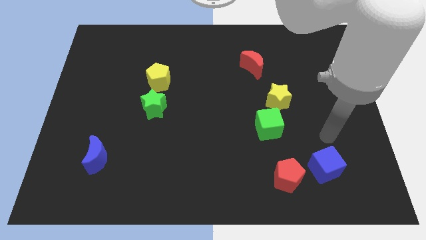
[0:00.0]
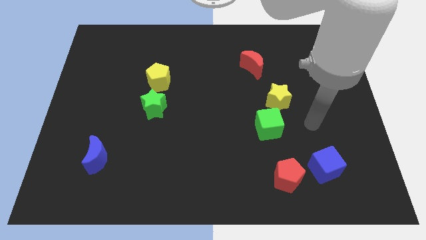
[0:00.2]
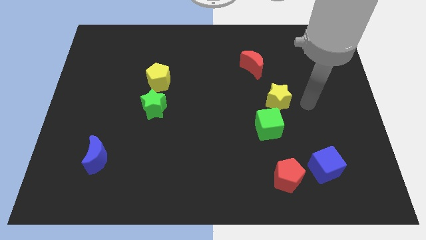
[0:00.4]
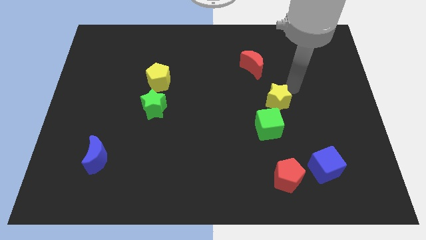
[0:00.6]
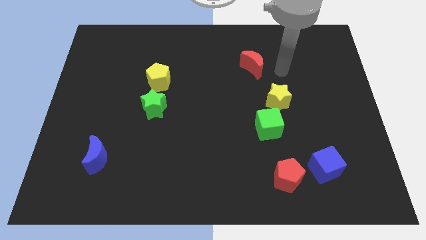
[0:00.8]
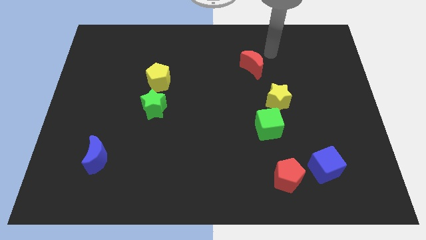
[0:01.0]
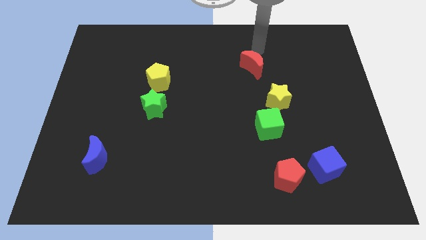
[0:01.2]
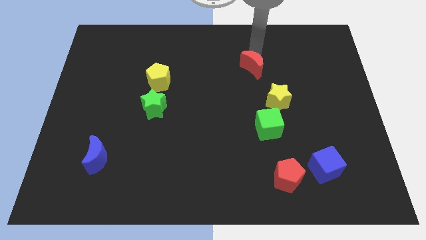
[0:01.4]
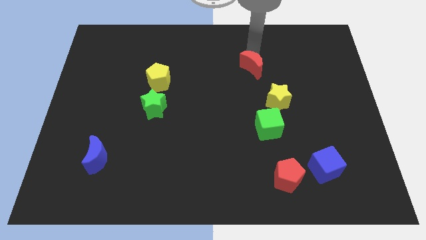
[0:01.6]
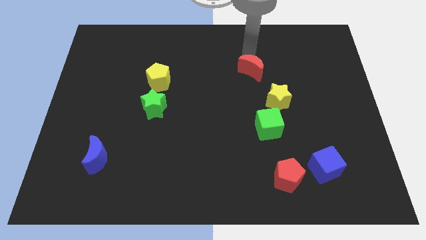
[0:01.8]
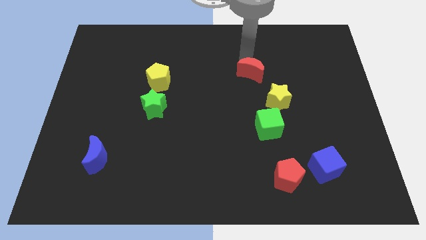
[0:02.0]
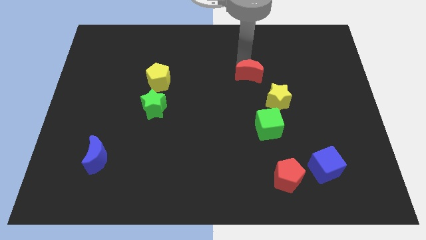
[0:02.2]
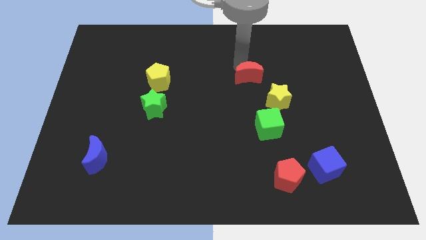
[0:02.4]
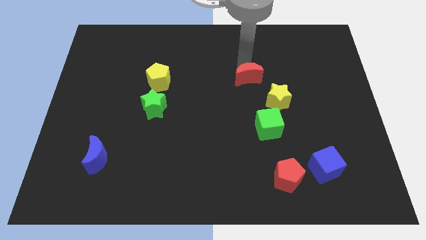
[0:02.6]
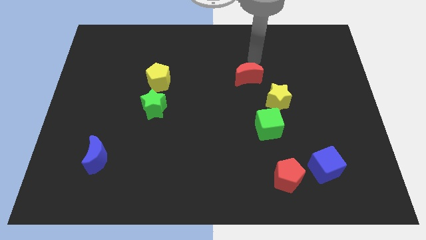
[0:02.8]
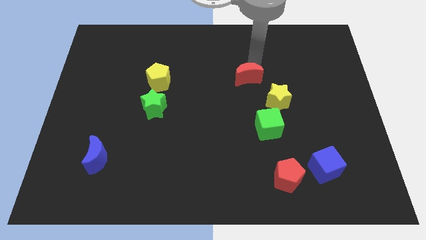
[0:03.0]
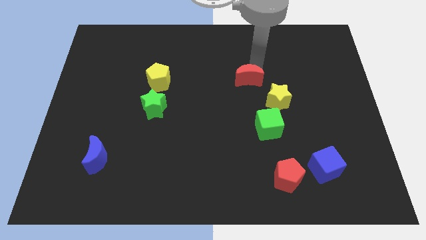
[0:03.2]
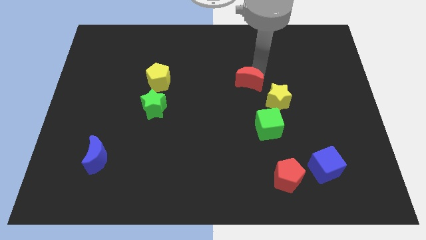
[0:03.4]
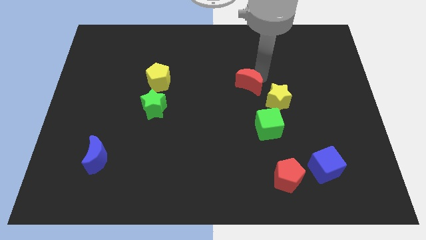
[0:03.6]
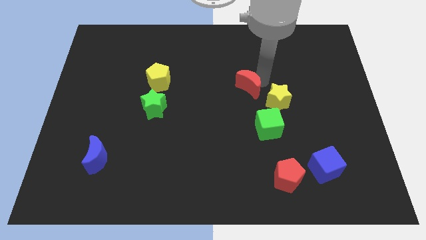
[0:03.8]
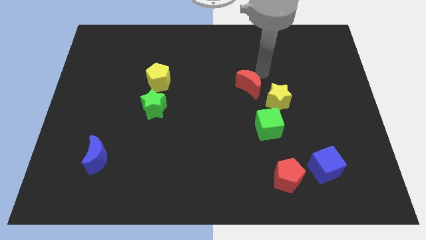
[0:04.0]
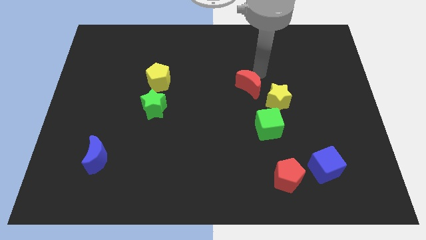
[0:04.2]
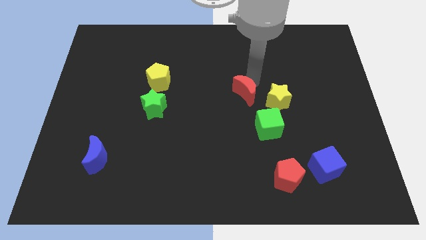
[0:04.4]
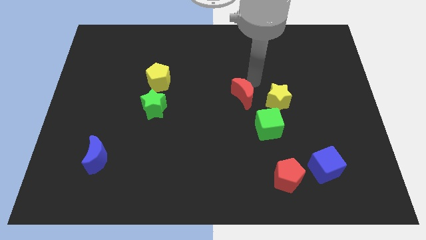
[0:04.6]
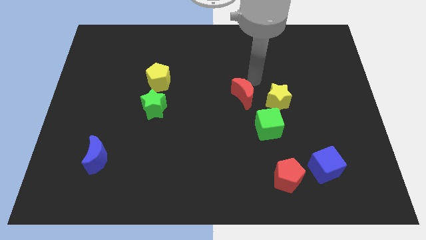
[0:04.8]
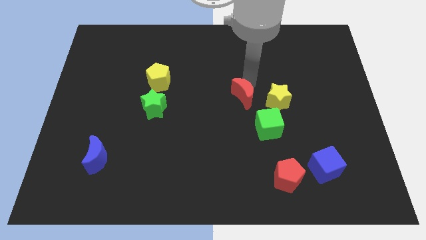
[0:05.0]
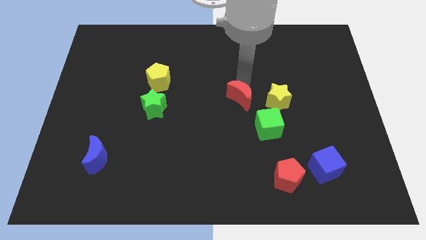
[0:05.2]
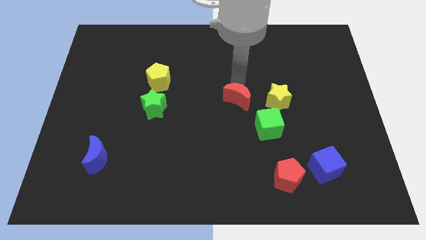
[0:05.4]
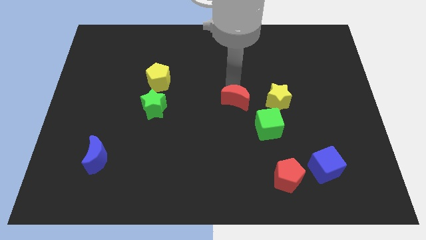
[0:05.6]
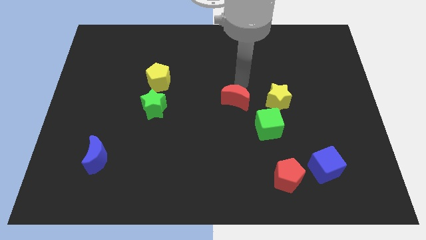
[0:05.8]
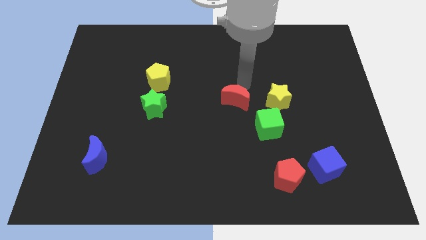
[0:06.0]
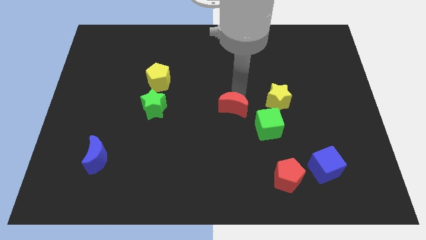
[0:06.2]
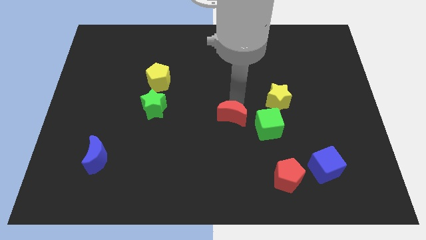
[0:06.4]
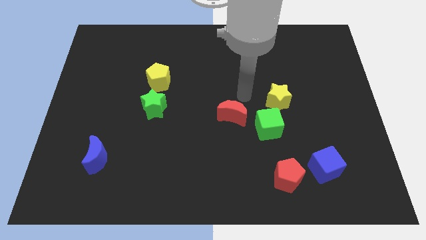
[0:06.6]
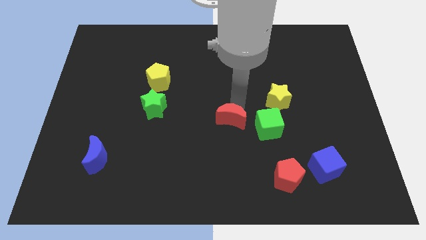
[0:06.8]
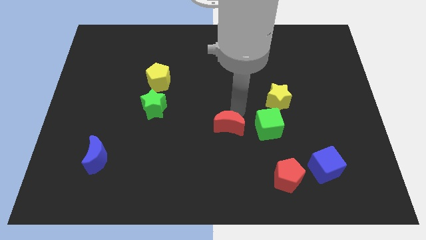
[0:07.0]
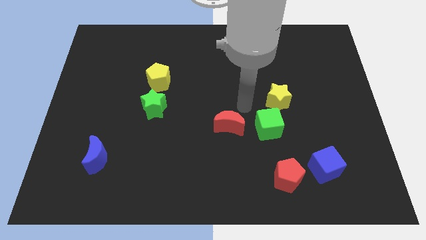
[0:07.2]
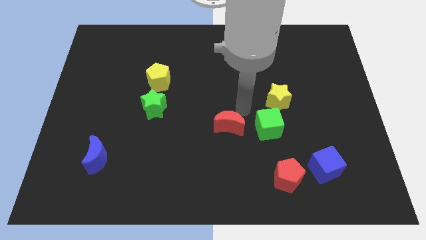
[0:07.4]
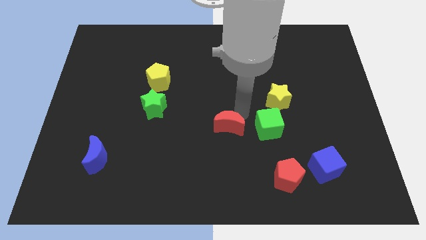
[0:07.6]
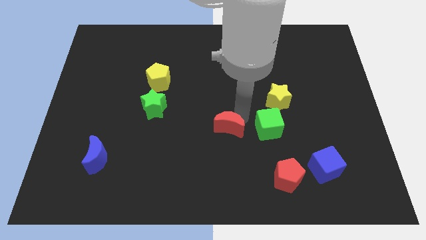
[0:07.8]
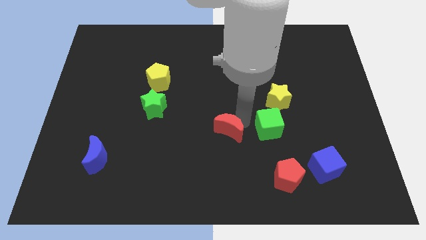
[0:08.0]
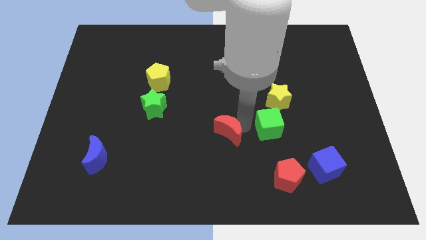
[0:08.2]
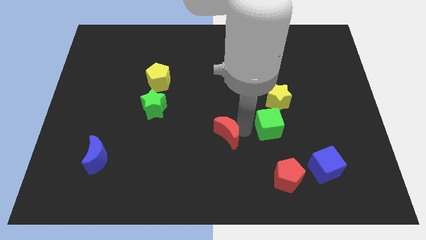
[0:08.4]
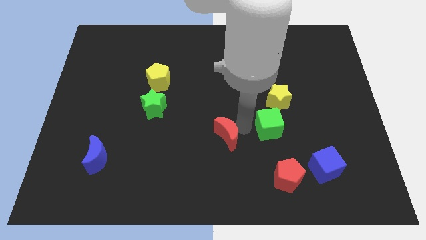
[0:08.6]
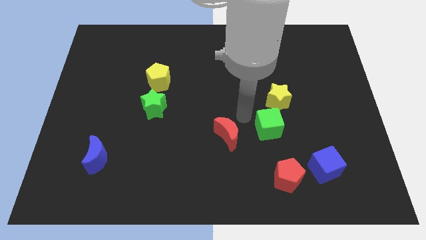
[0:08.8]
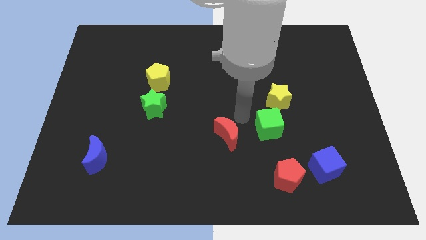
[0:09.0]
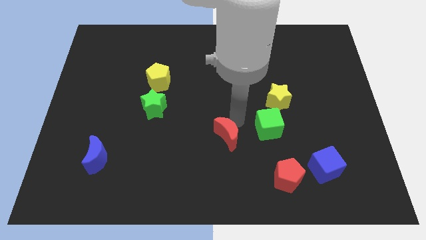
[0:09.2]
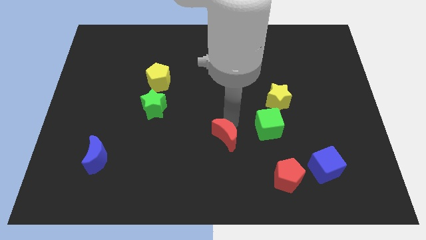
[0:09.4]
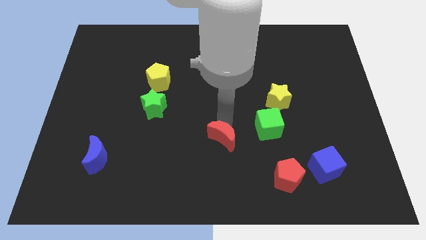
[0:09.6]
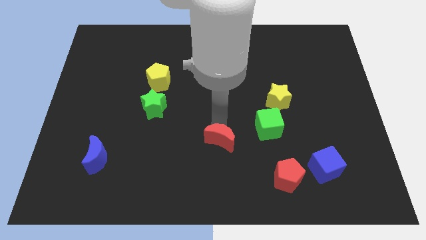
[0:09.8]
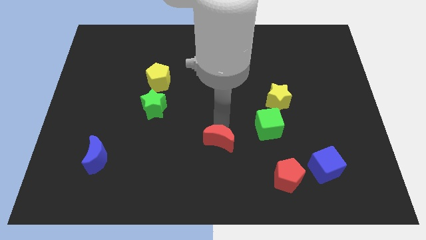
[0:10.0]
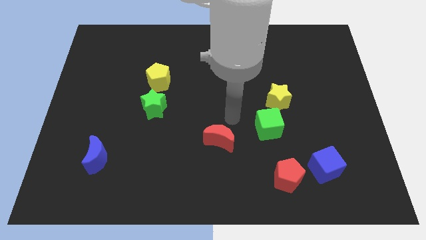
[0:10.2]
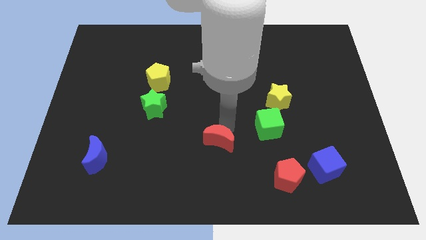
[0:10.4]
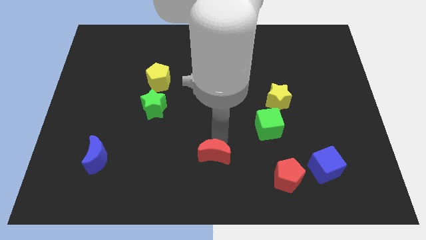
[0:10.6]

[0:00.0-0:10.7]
slide the red moon to the bottom

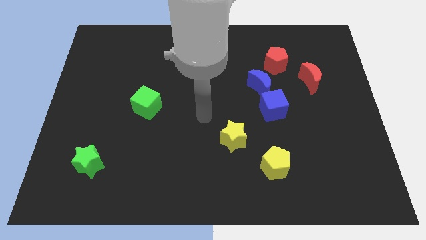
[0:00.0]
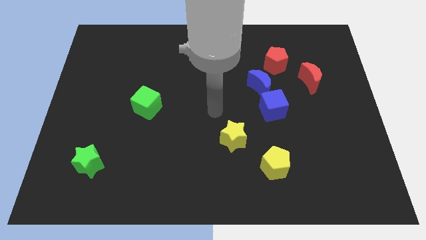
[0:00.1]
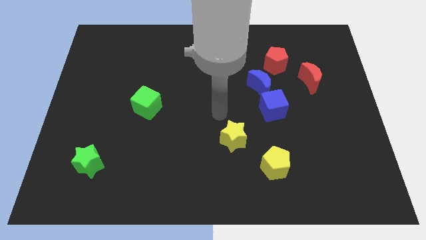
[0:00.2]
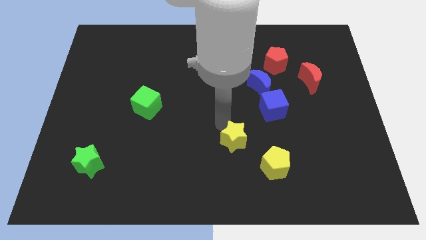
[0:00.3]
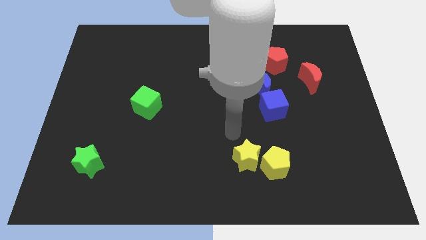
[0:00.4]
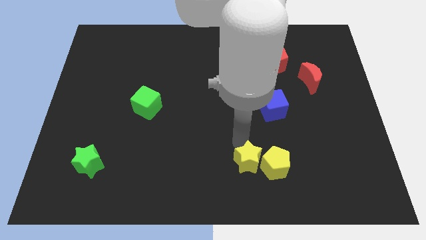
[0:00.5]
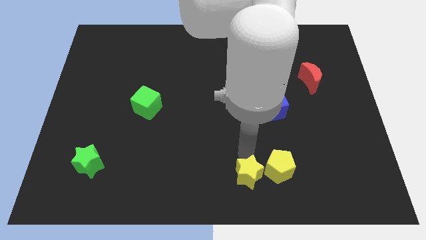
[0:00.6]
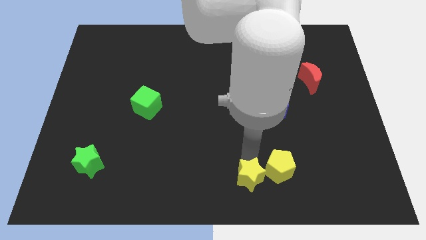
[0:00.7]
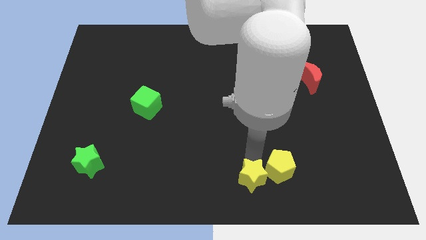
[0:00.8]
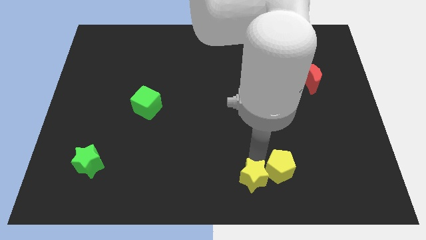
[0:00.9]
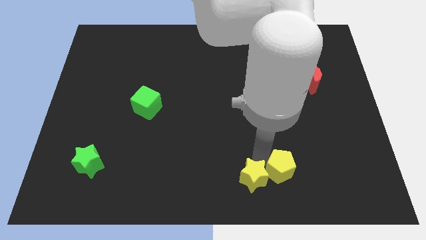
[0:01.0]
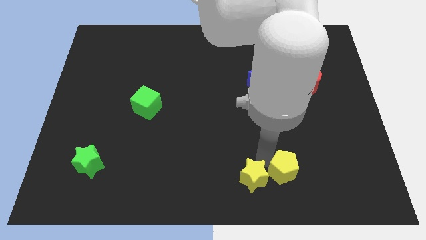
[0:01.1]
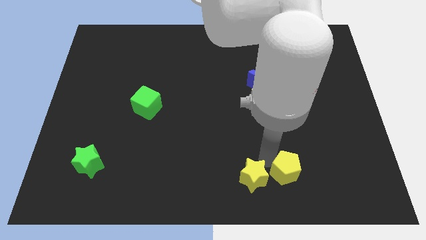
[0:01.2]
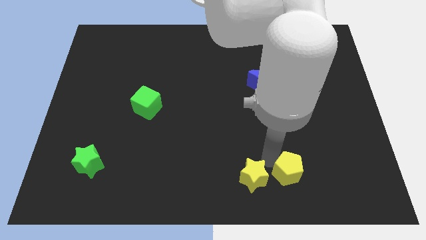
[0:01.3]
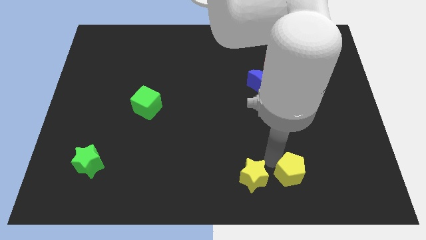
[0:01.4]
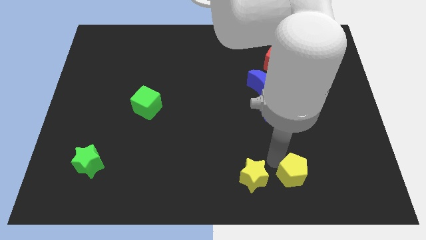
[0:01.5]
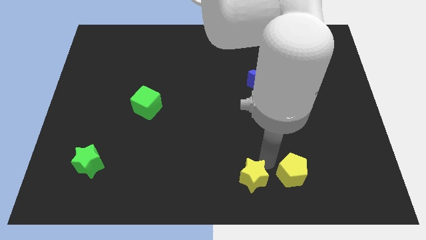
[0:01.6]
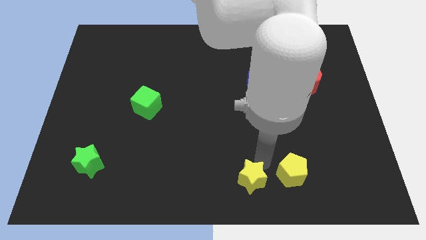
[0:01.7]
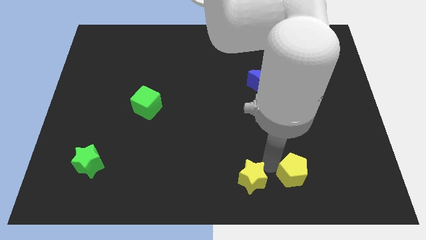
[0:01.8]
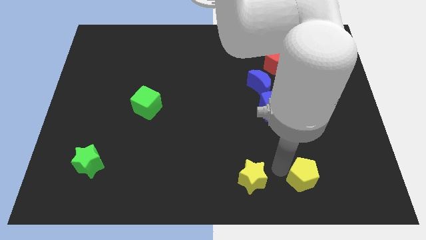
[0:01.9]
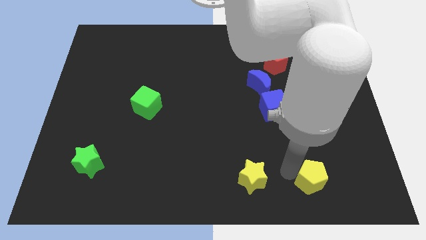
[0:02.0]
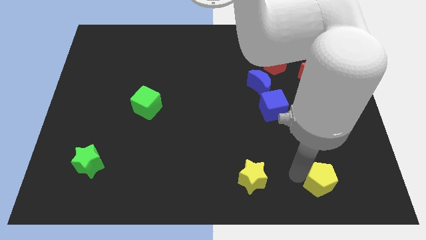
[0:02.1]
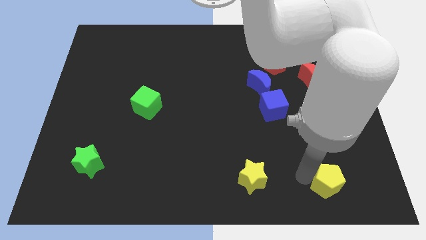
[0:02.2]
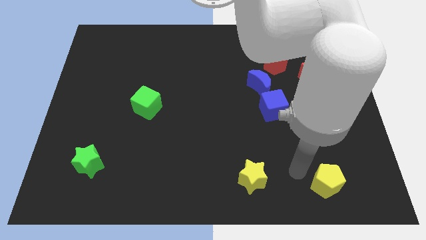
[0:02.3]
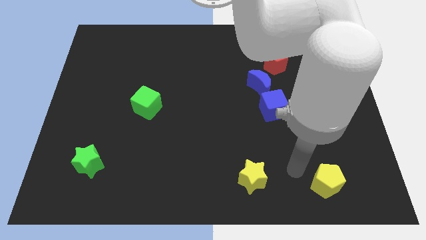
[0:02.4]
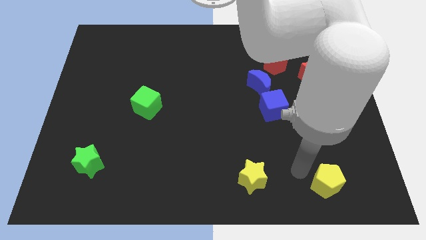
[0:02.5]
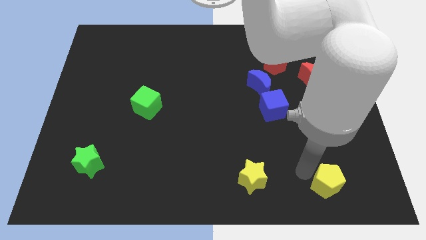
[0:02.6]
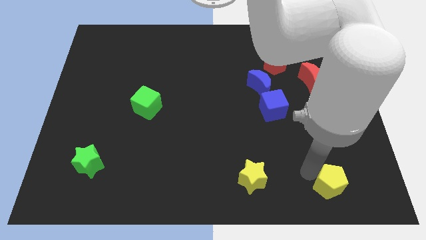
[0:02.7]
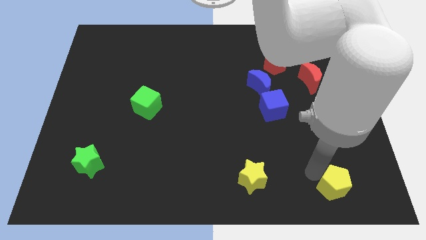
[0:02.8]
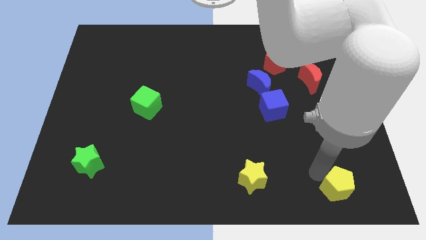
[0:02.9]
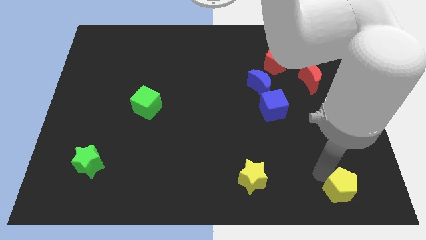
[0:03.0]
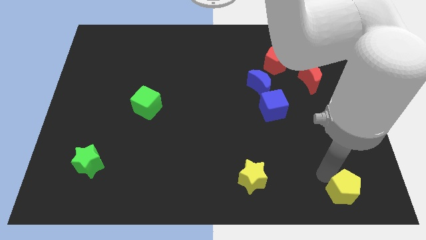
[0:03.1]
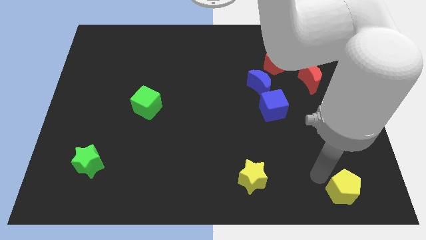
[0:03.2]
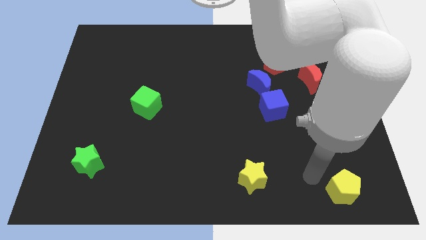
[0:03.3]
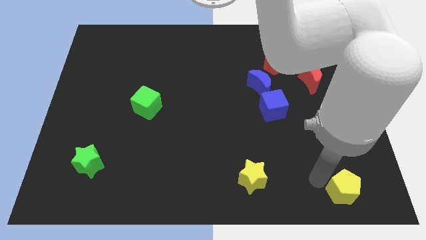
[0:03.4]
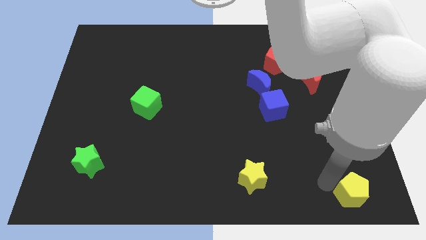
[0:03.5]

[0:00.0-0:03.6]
slide the yellow pentagon to the bottom right corner
